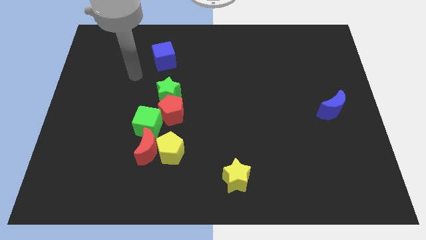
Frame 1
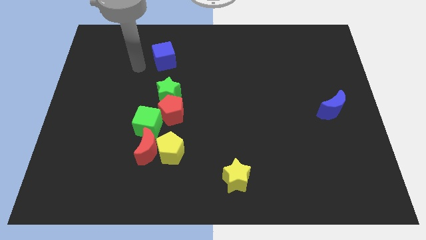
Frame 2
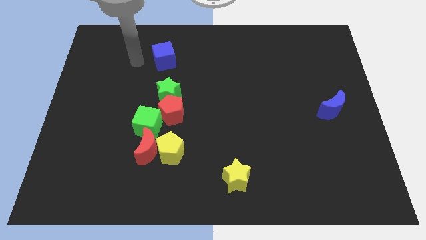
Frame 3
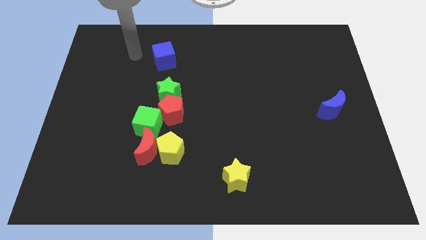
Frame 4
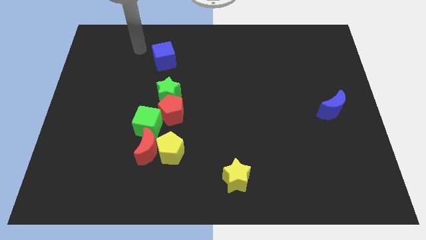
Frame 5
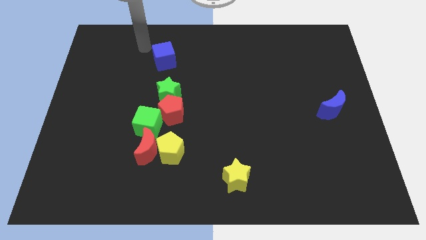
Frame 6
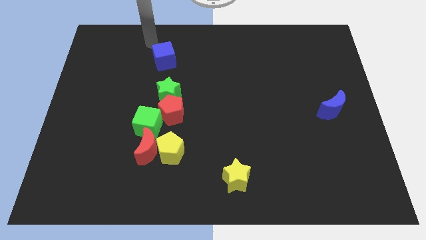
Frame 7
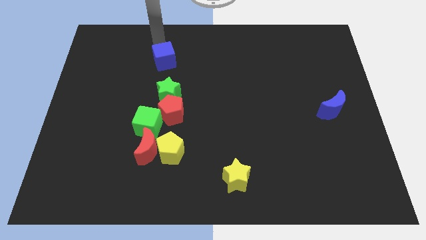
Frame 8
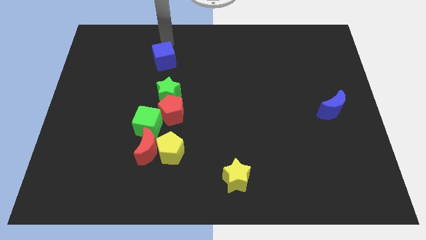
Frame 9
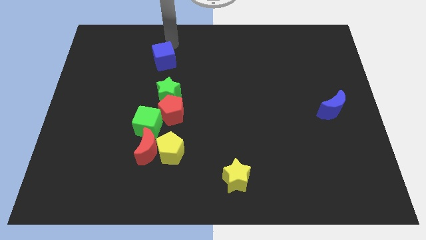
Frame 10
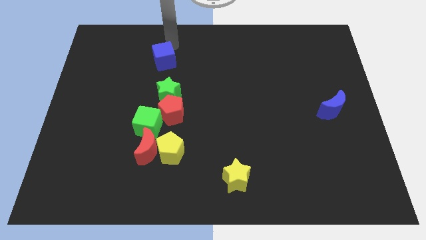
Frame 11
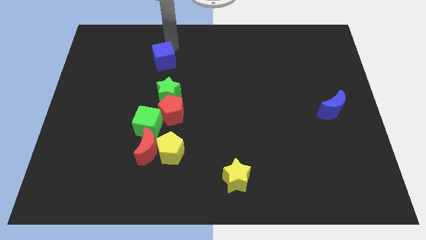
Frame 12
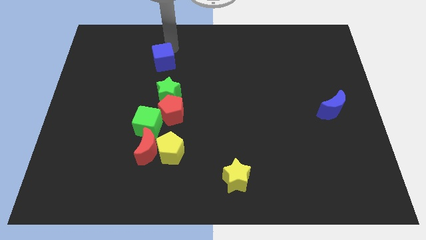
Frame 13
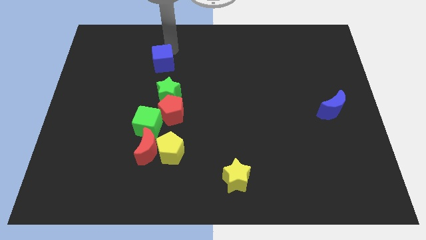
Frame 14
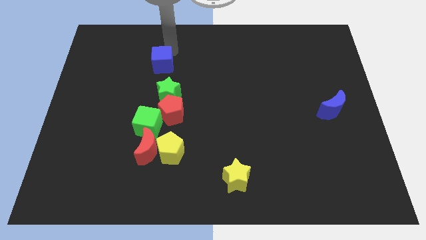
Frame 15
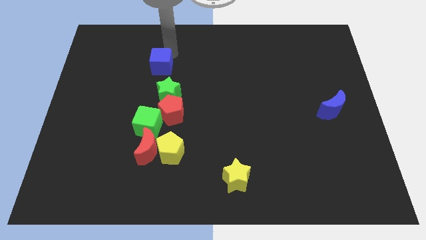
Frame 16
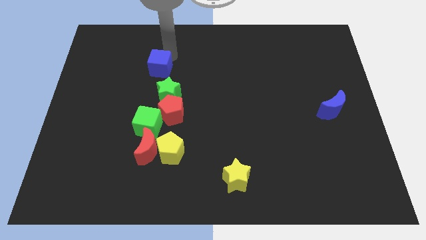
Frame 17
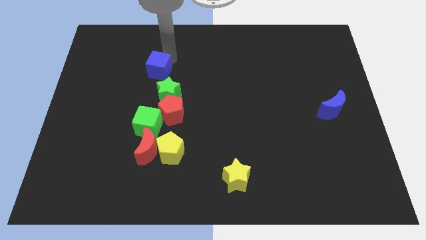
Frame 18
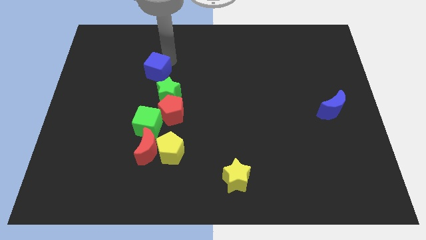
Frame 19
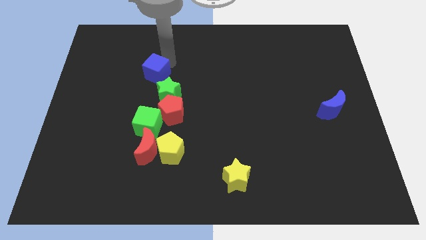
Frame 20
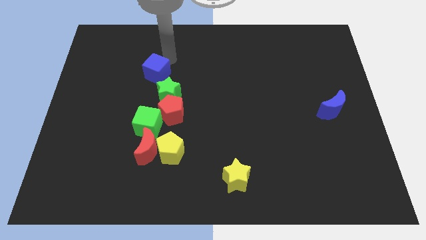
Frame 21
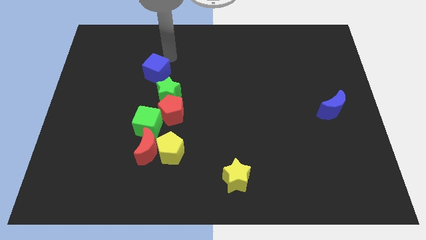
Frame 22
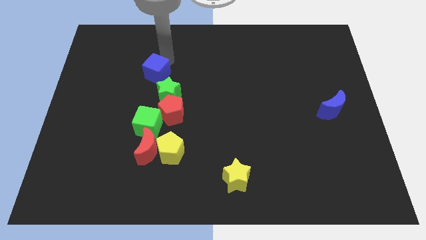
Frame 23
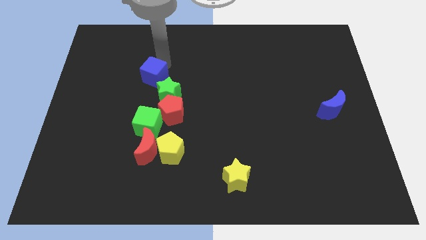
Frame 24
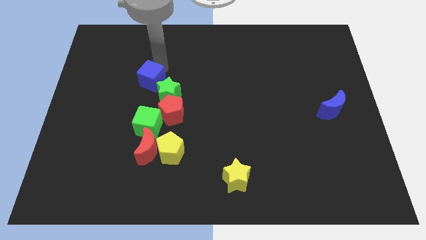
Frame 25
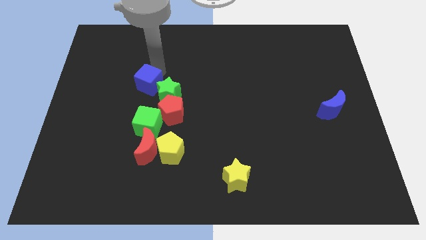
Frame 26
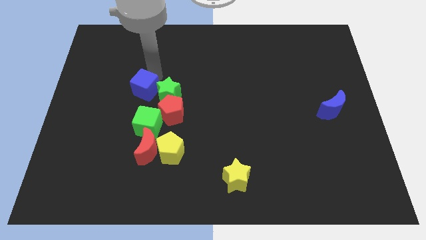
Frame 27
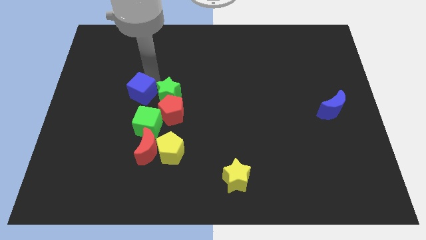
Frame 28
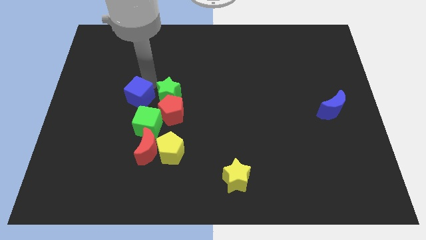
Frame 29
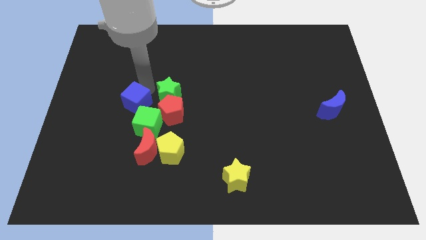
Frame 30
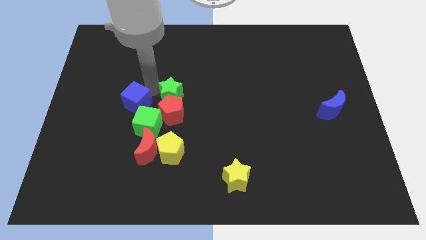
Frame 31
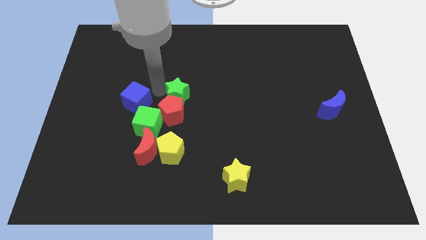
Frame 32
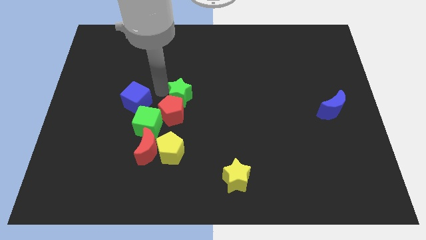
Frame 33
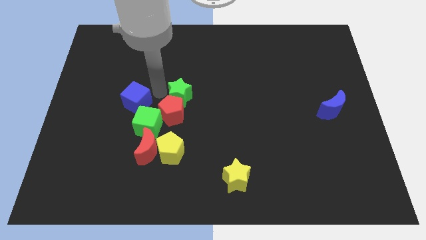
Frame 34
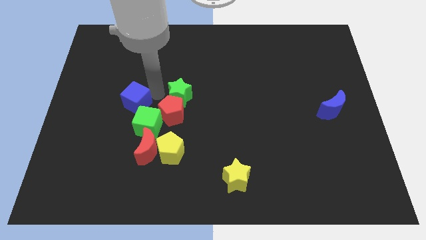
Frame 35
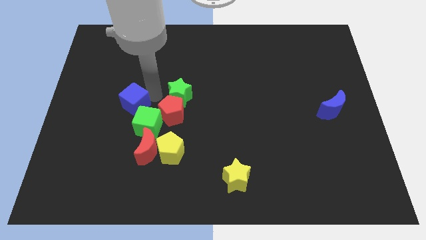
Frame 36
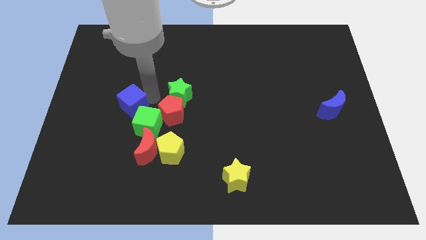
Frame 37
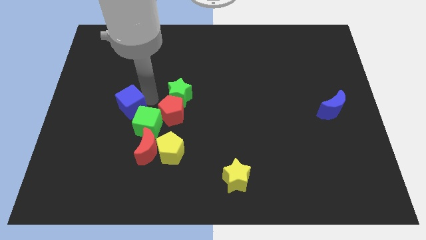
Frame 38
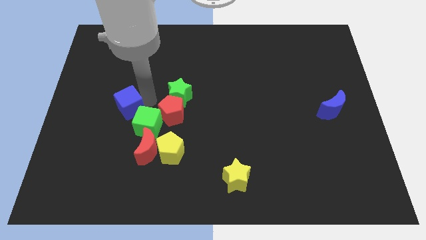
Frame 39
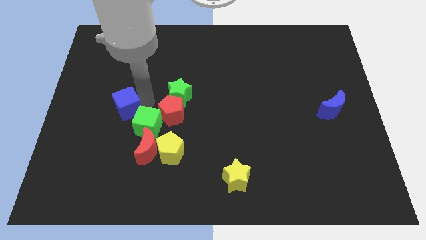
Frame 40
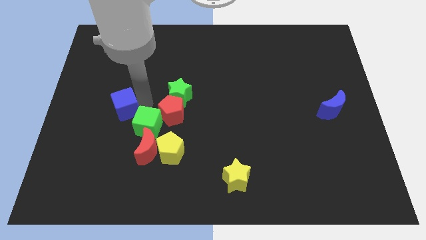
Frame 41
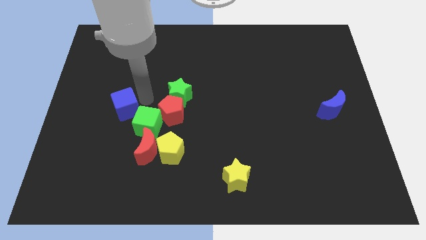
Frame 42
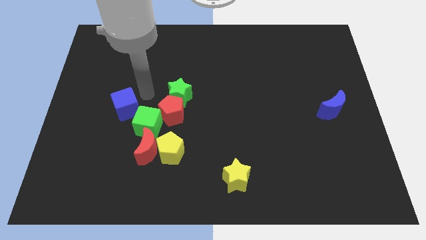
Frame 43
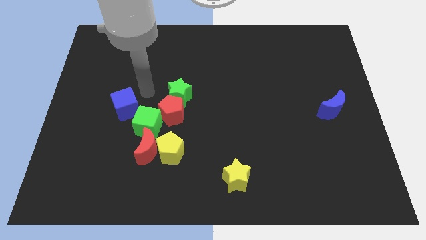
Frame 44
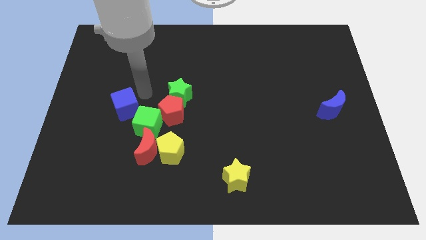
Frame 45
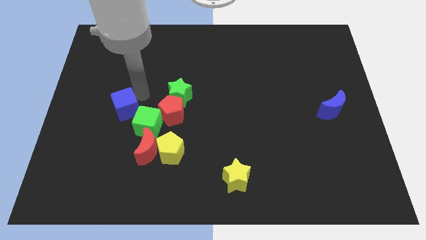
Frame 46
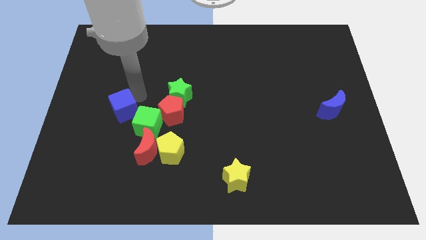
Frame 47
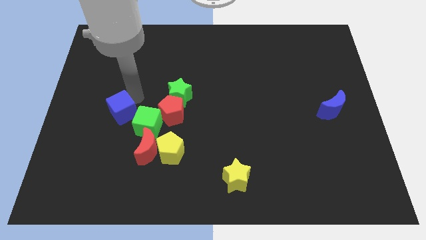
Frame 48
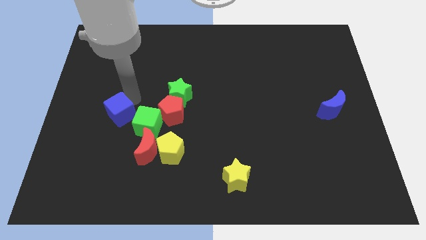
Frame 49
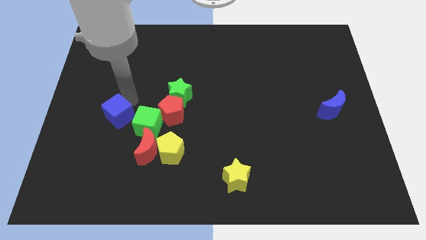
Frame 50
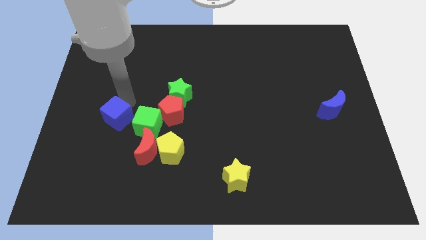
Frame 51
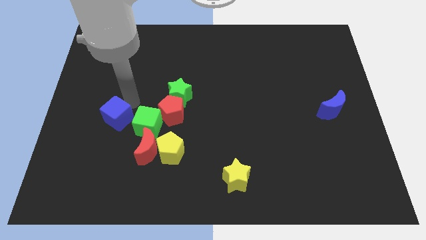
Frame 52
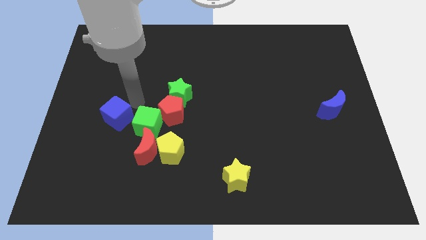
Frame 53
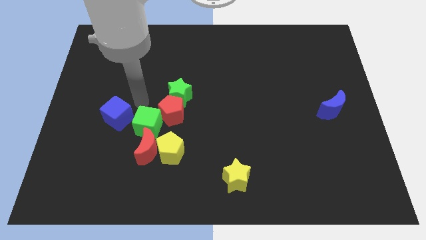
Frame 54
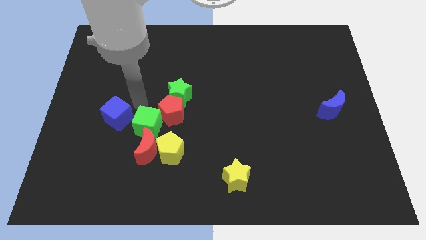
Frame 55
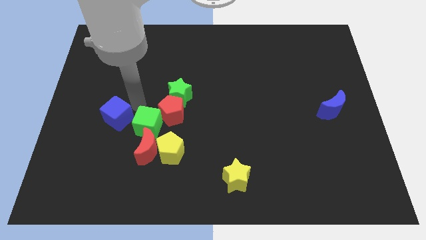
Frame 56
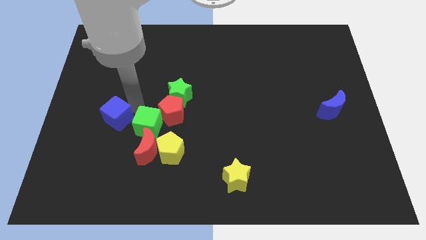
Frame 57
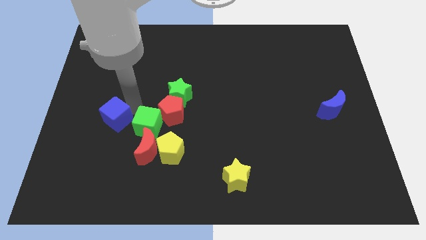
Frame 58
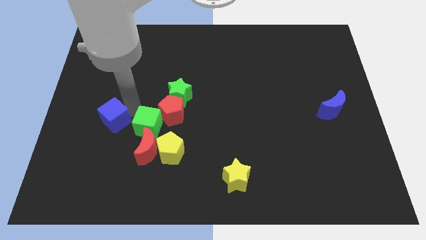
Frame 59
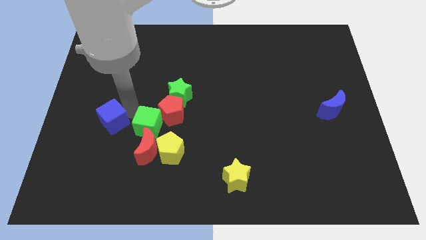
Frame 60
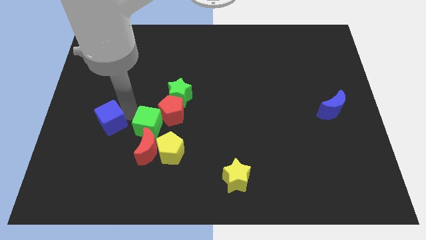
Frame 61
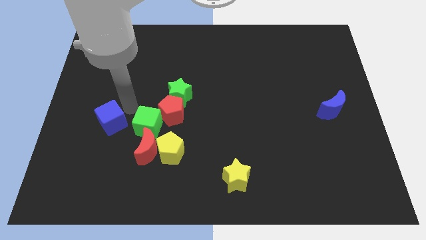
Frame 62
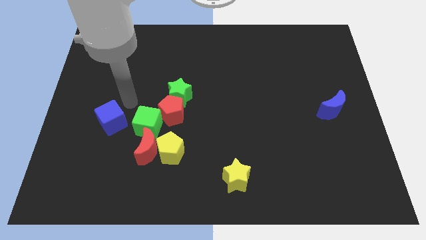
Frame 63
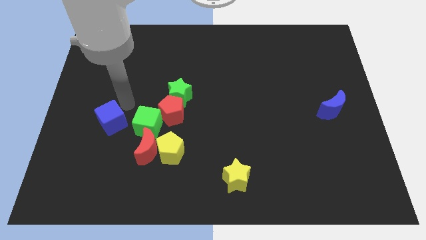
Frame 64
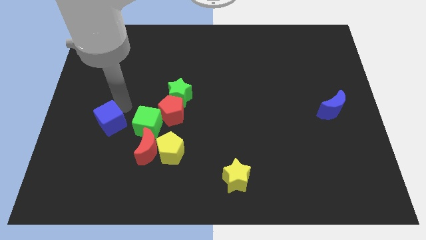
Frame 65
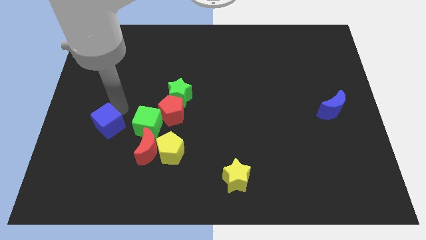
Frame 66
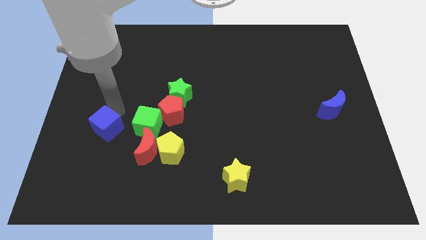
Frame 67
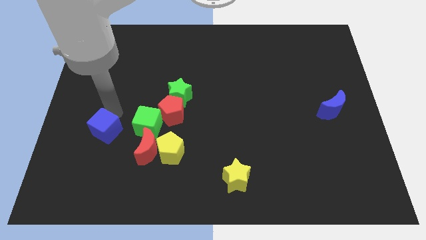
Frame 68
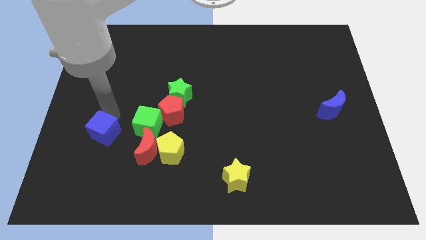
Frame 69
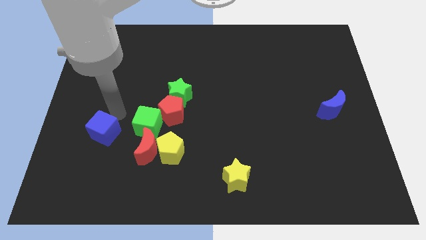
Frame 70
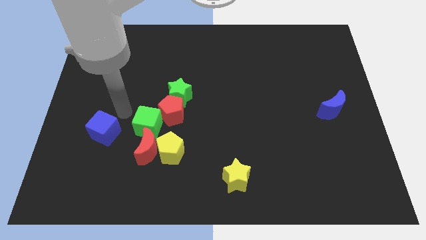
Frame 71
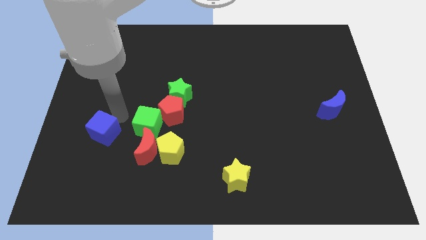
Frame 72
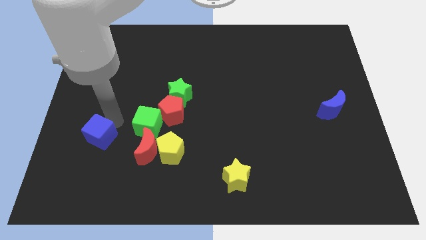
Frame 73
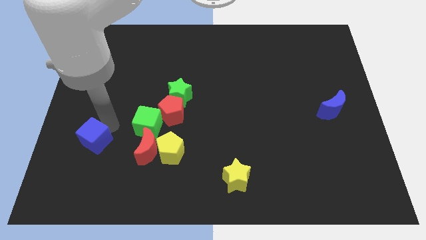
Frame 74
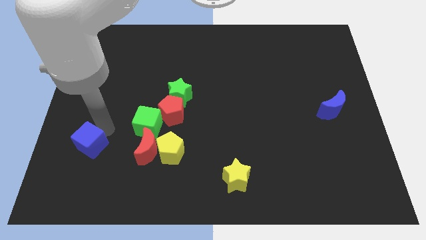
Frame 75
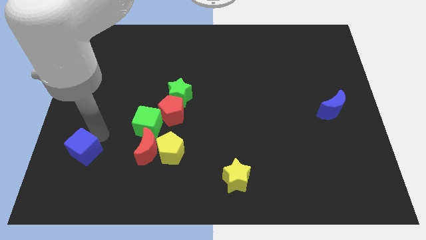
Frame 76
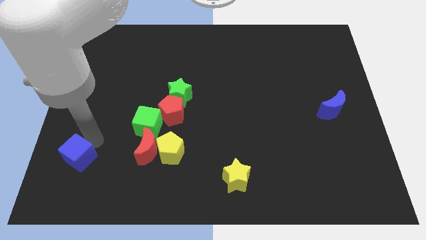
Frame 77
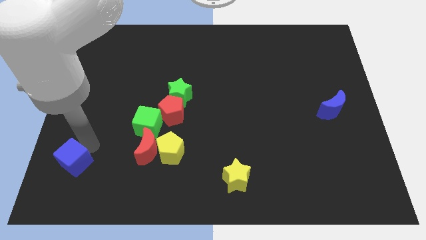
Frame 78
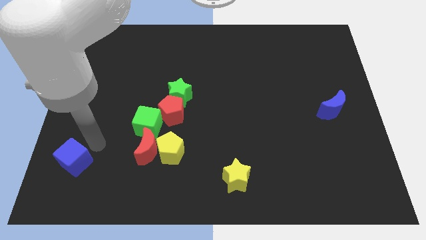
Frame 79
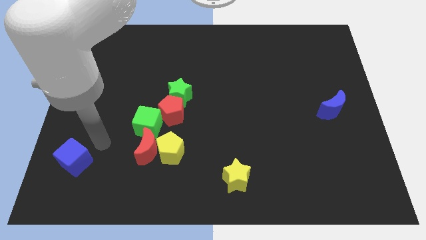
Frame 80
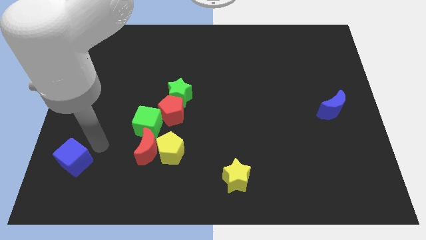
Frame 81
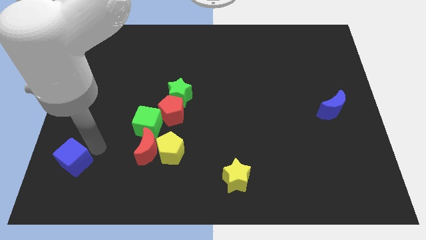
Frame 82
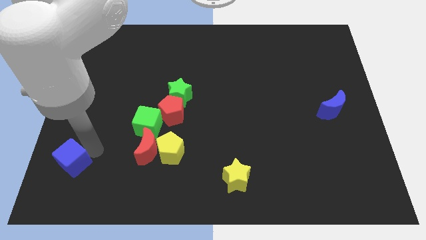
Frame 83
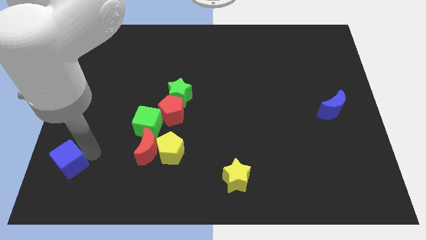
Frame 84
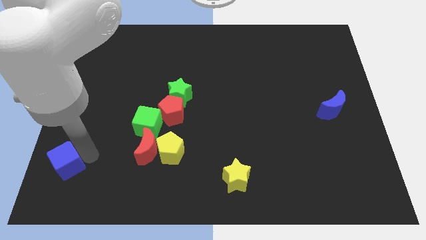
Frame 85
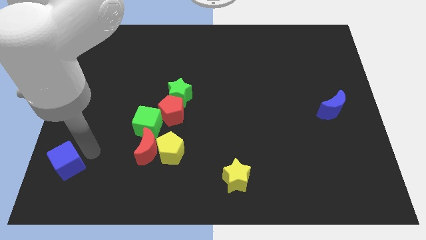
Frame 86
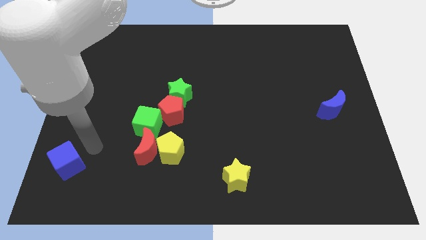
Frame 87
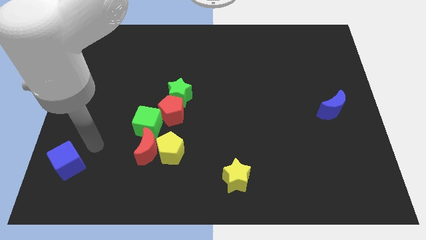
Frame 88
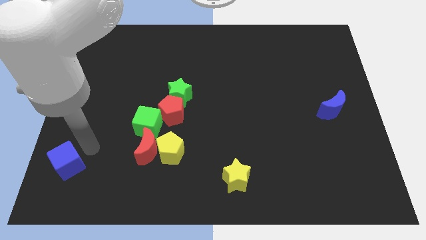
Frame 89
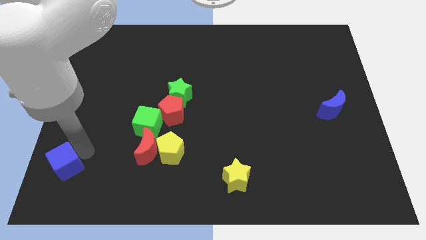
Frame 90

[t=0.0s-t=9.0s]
put the blue cube to the bottom left corner
